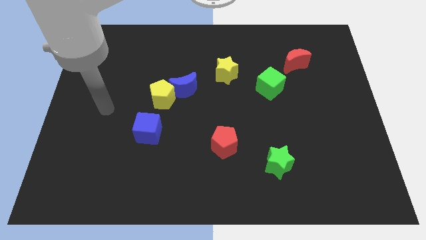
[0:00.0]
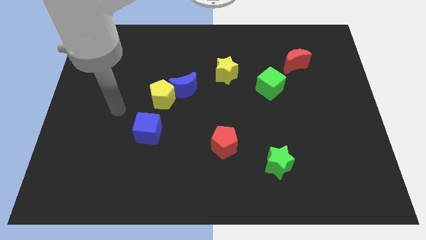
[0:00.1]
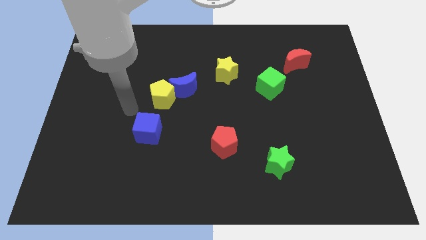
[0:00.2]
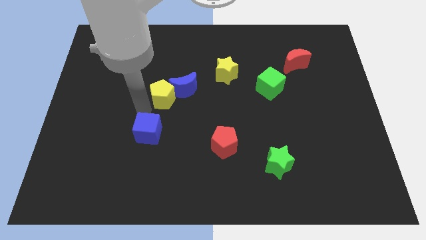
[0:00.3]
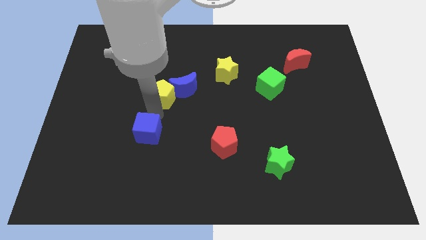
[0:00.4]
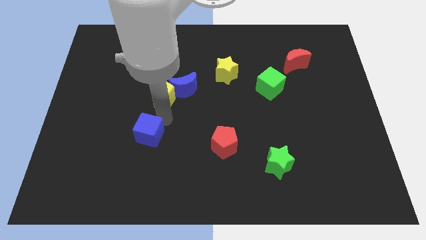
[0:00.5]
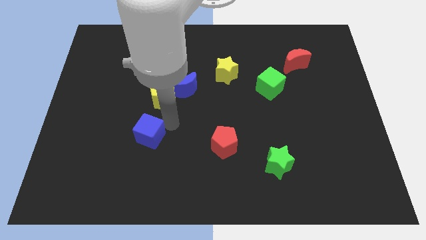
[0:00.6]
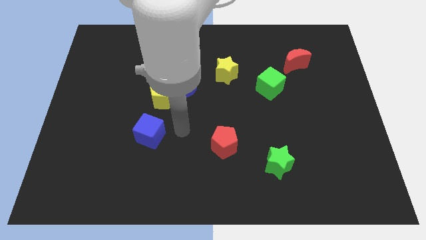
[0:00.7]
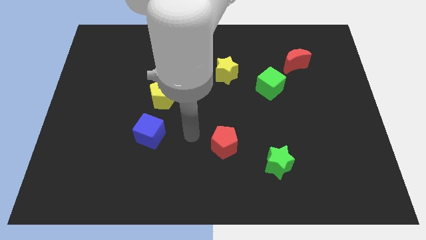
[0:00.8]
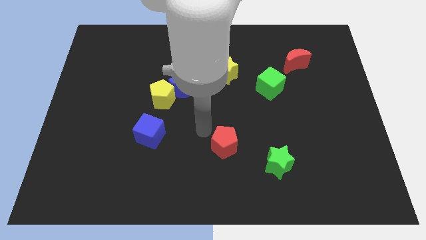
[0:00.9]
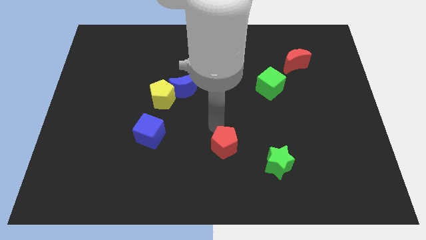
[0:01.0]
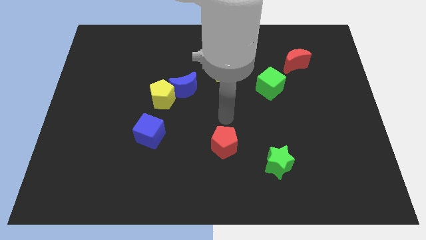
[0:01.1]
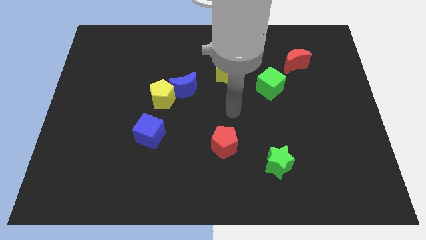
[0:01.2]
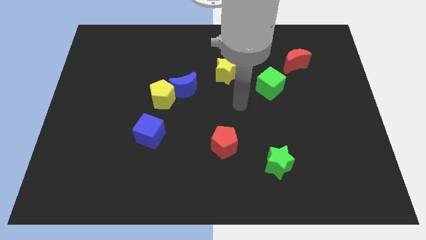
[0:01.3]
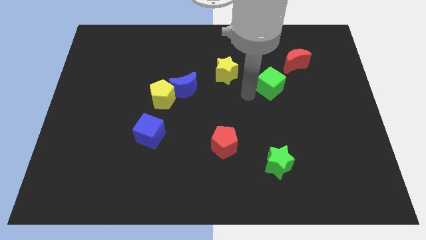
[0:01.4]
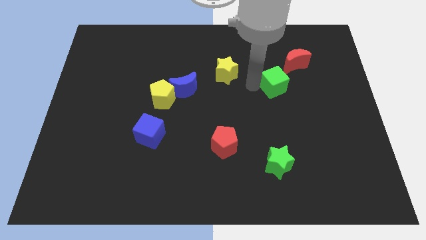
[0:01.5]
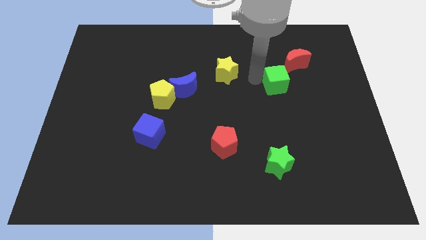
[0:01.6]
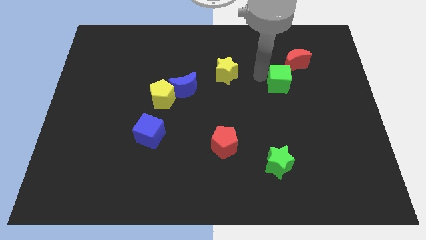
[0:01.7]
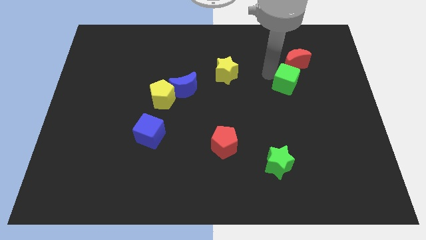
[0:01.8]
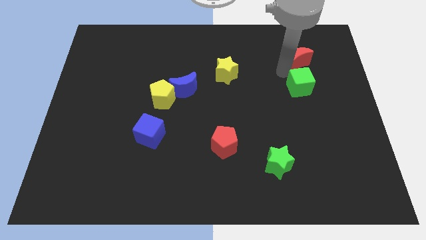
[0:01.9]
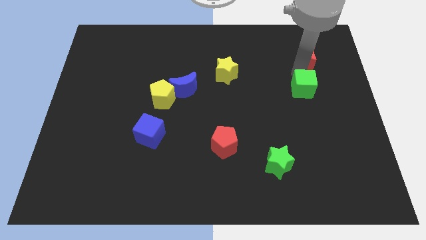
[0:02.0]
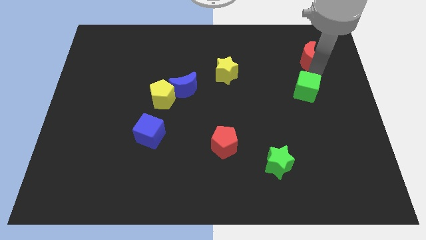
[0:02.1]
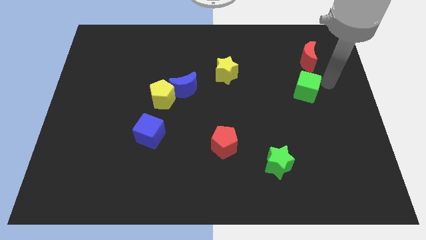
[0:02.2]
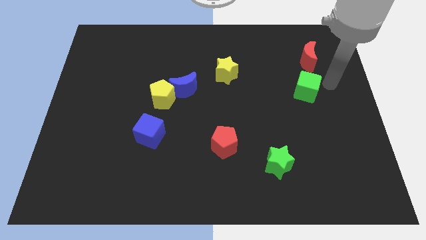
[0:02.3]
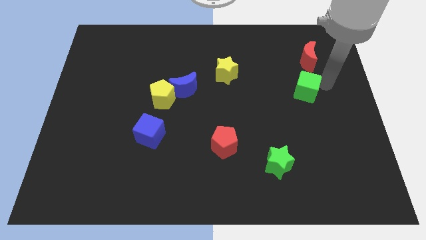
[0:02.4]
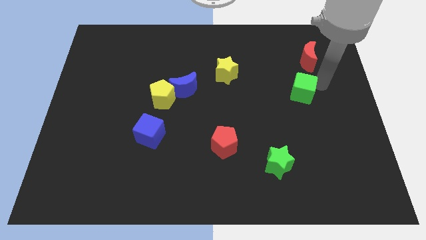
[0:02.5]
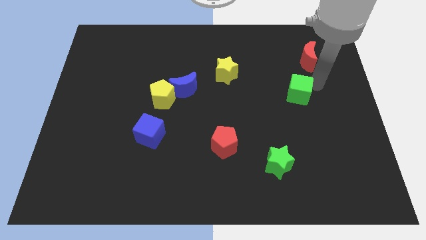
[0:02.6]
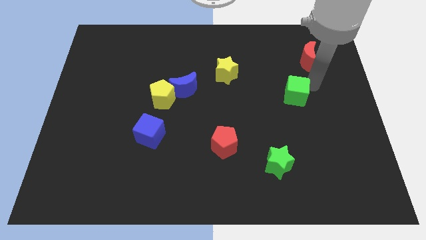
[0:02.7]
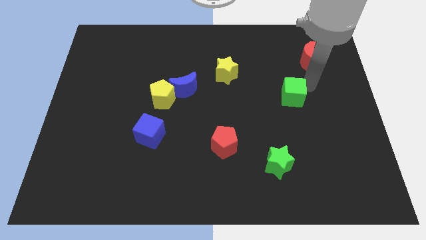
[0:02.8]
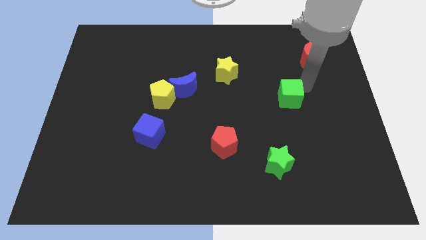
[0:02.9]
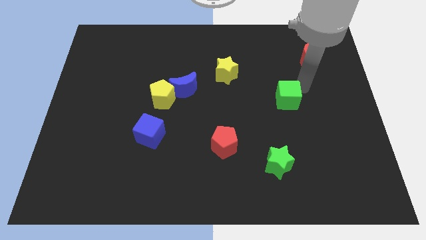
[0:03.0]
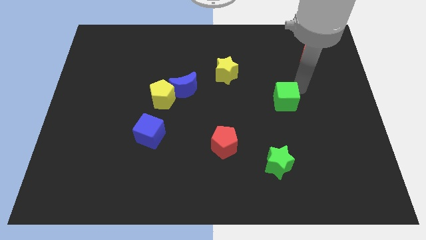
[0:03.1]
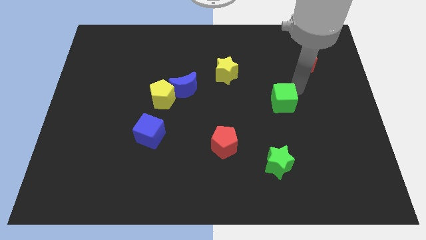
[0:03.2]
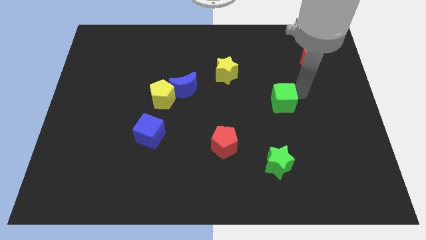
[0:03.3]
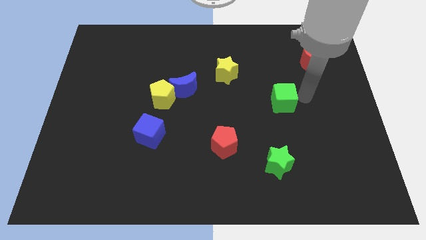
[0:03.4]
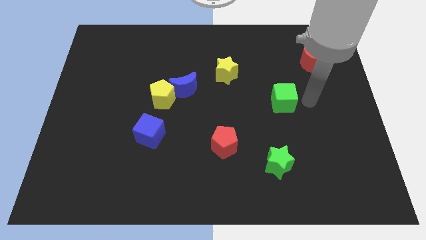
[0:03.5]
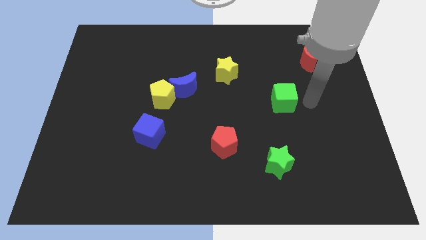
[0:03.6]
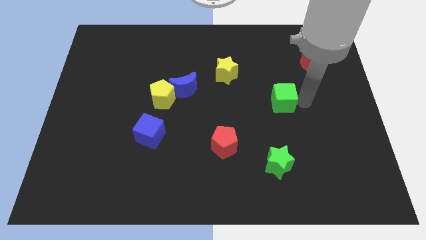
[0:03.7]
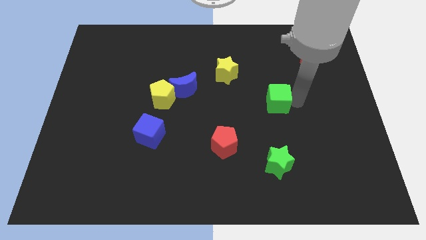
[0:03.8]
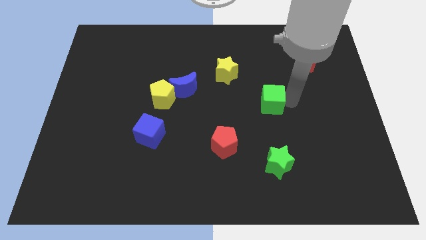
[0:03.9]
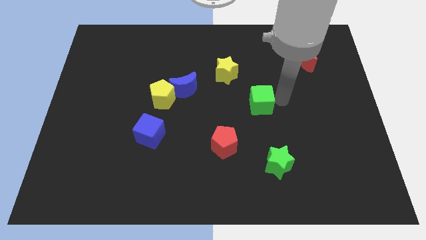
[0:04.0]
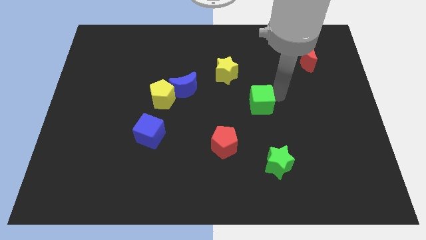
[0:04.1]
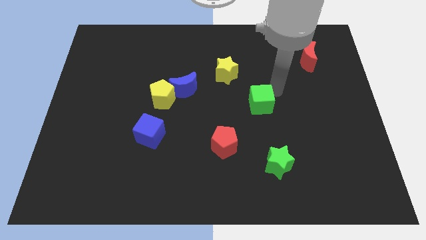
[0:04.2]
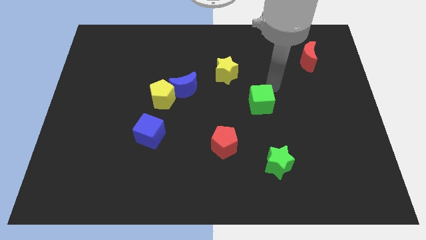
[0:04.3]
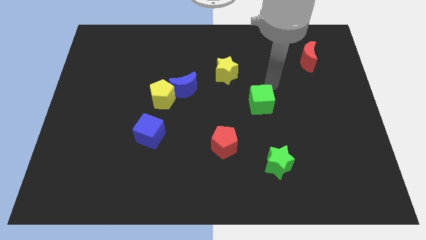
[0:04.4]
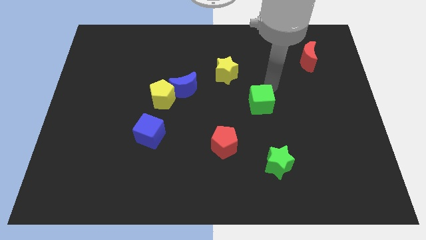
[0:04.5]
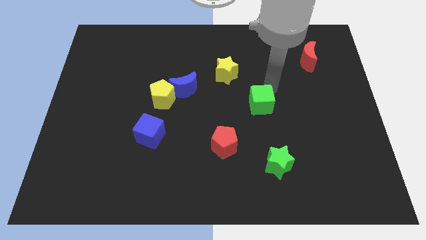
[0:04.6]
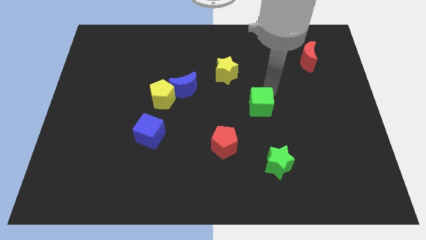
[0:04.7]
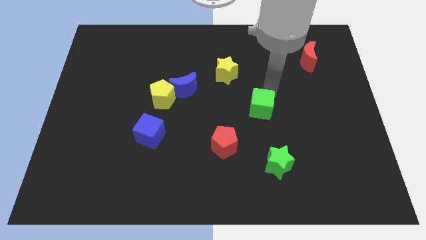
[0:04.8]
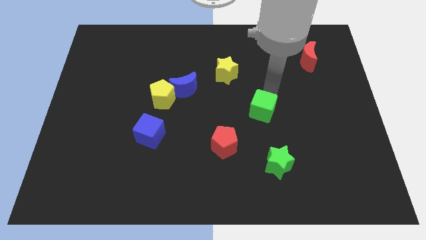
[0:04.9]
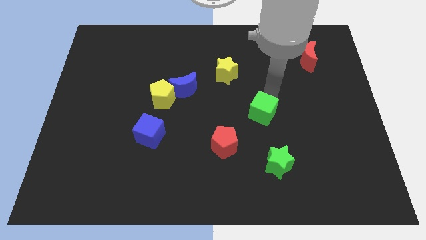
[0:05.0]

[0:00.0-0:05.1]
slide the green cube to the top right side of the red pentagon

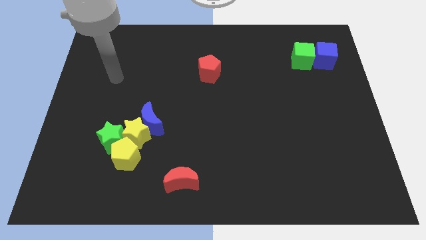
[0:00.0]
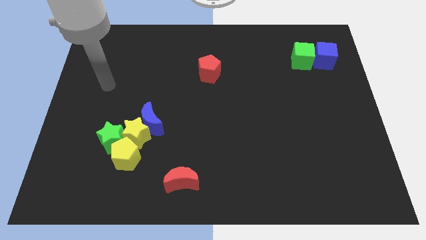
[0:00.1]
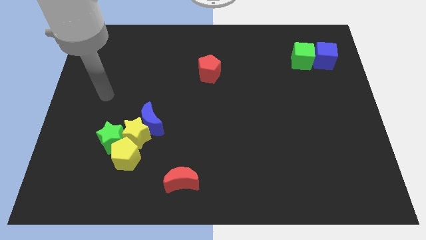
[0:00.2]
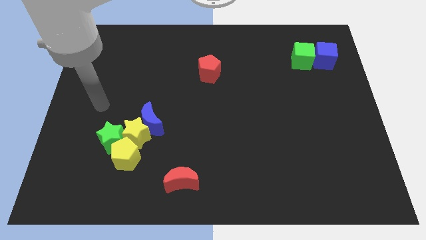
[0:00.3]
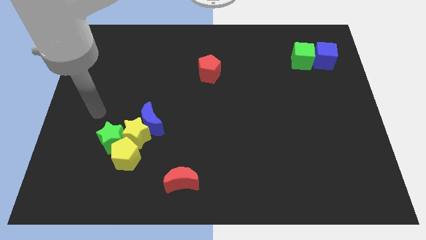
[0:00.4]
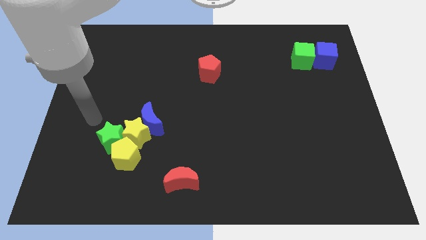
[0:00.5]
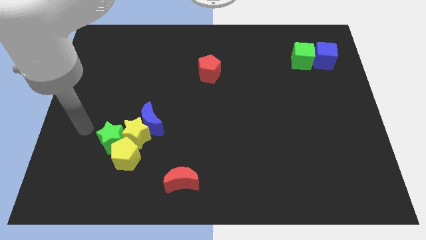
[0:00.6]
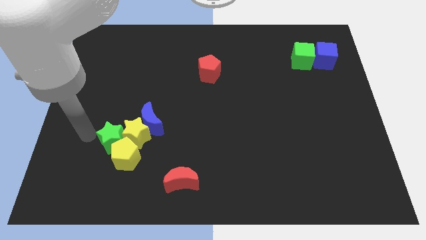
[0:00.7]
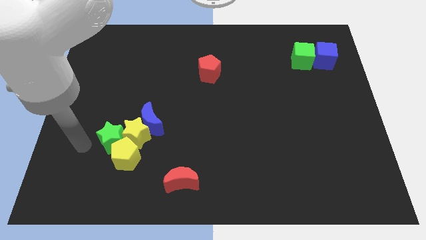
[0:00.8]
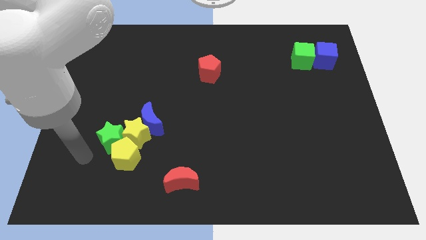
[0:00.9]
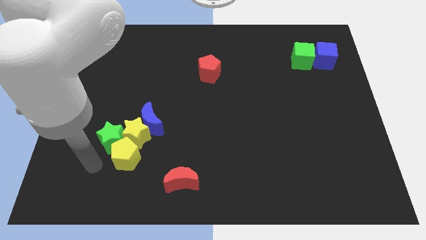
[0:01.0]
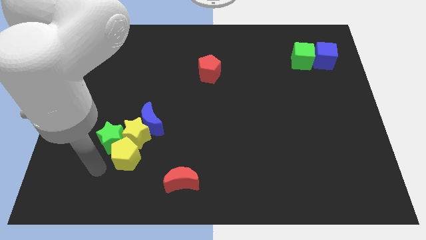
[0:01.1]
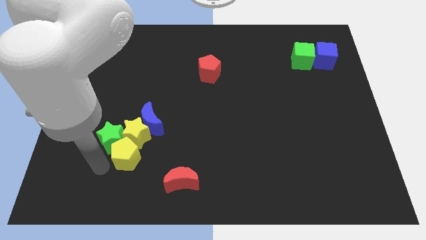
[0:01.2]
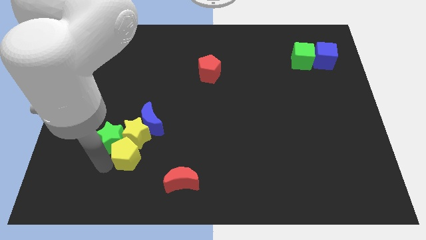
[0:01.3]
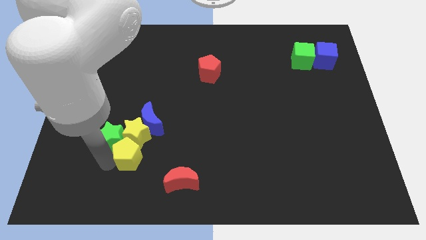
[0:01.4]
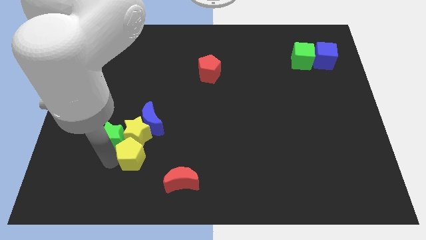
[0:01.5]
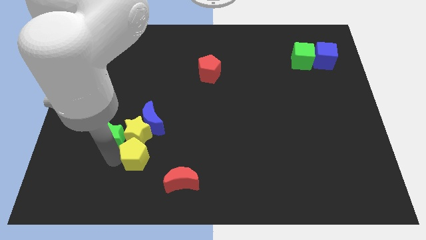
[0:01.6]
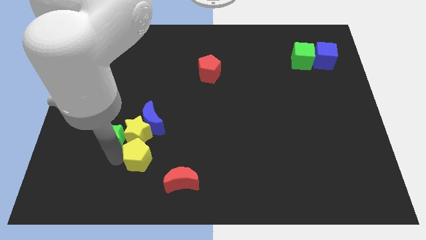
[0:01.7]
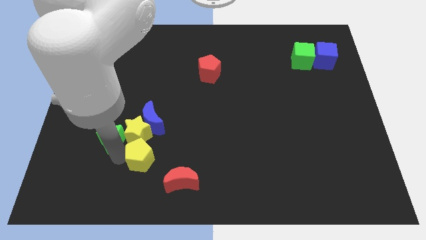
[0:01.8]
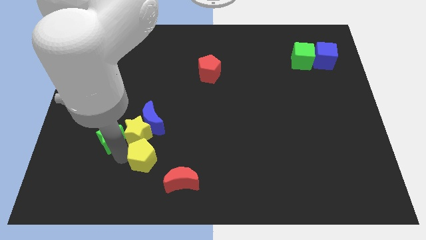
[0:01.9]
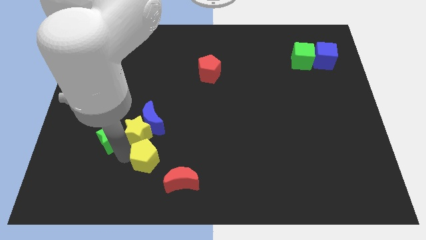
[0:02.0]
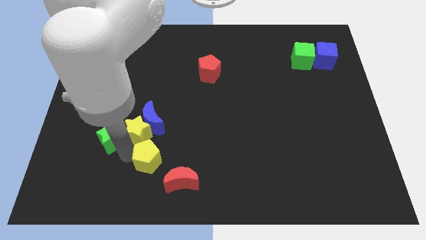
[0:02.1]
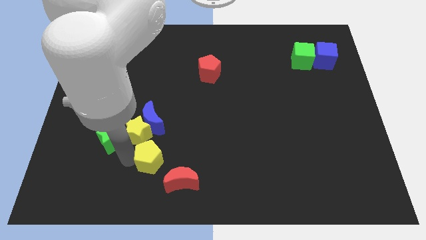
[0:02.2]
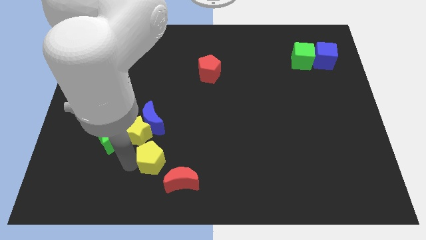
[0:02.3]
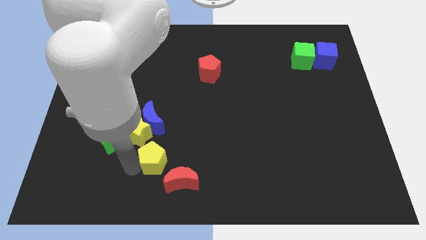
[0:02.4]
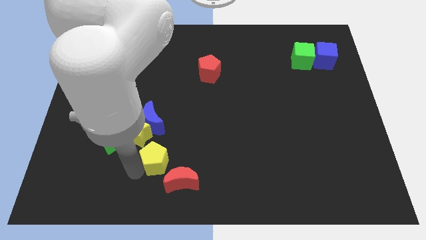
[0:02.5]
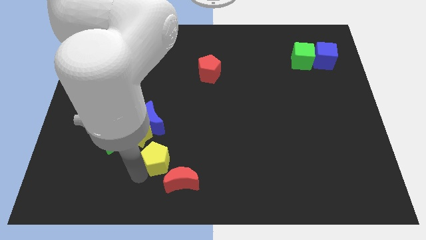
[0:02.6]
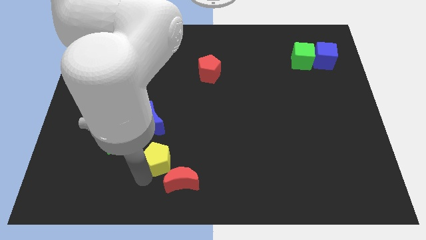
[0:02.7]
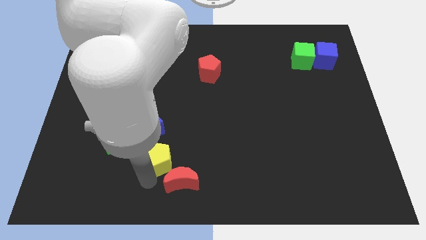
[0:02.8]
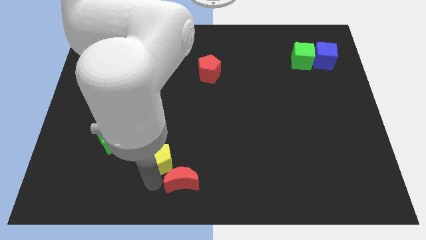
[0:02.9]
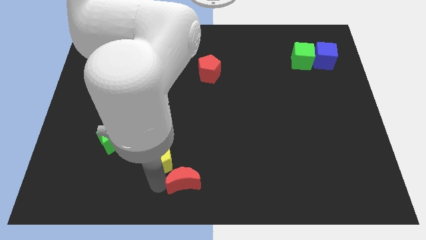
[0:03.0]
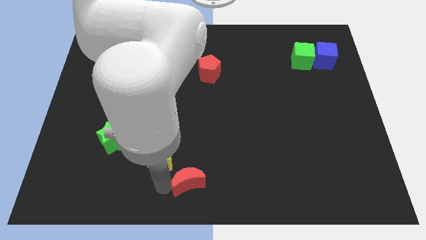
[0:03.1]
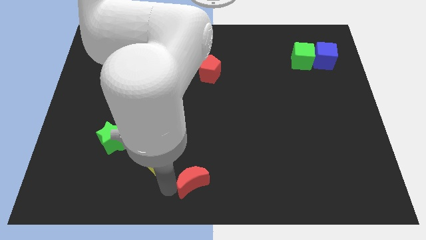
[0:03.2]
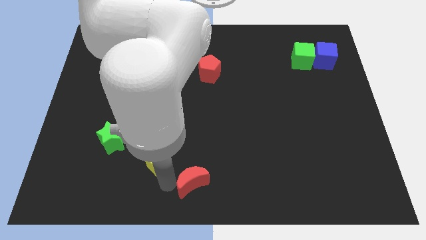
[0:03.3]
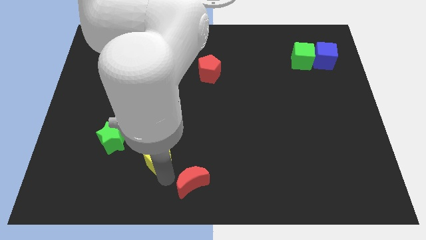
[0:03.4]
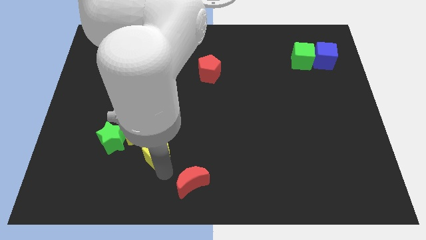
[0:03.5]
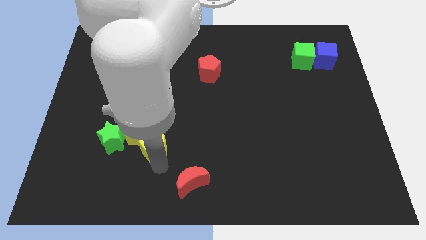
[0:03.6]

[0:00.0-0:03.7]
put the yellow pentagon just right of the yellow star
